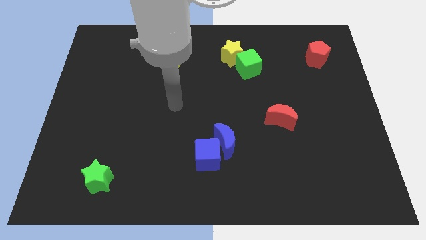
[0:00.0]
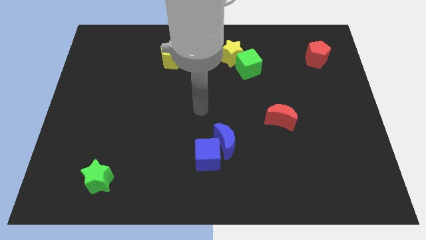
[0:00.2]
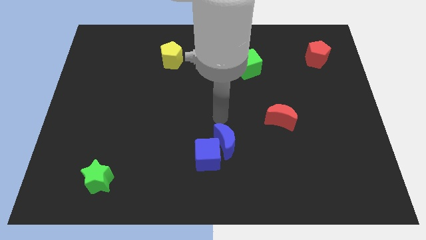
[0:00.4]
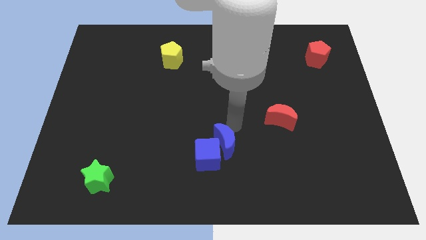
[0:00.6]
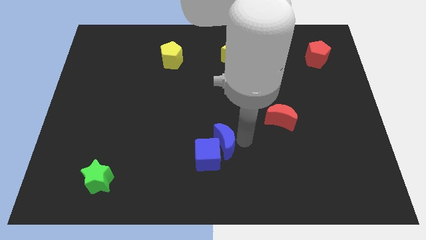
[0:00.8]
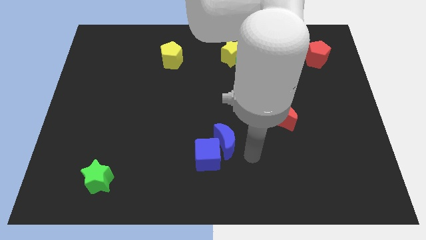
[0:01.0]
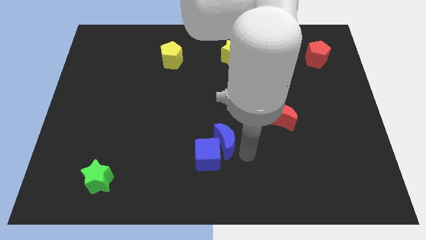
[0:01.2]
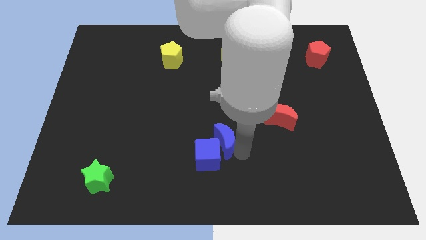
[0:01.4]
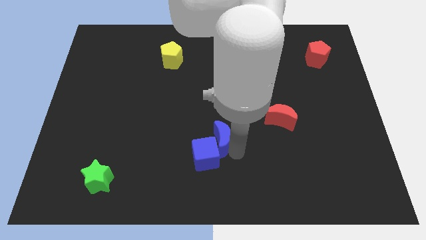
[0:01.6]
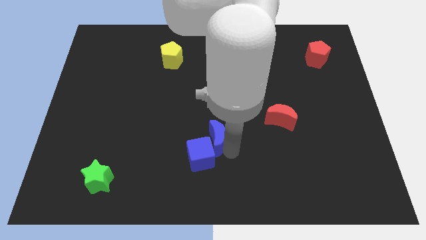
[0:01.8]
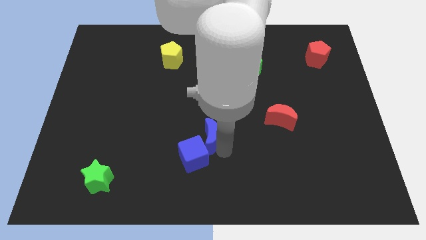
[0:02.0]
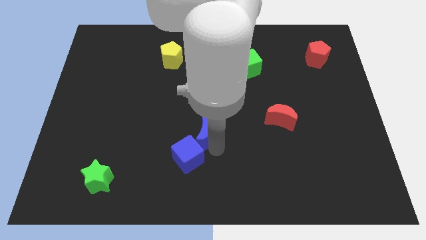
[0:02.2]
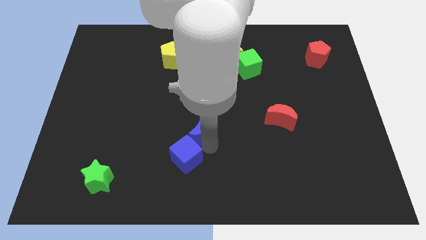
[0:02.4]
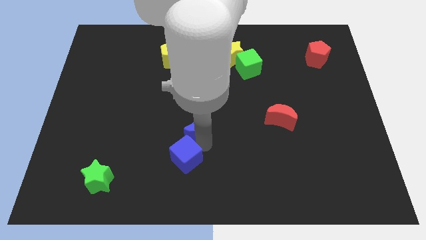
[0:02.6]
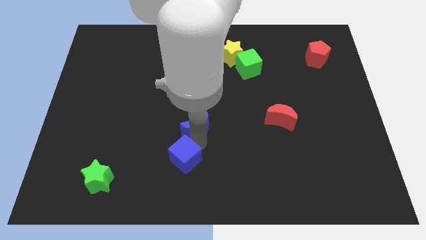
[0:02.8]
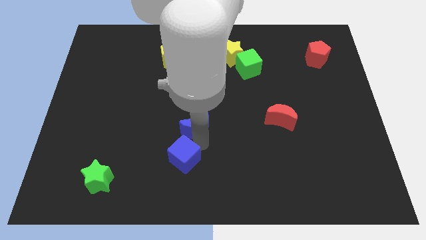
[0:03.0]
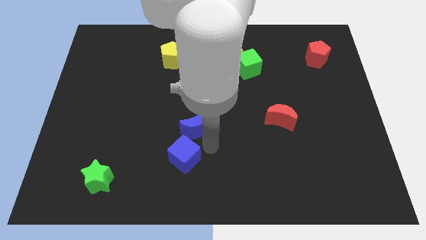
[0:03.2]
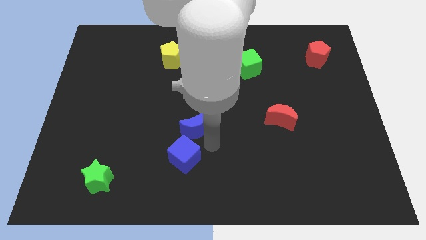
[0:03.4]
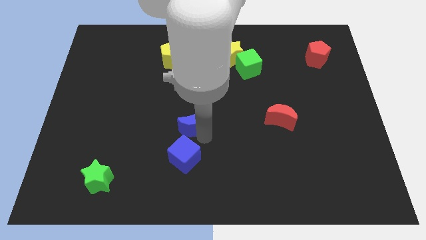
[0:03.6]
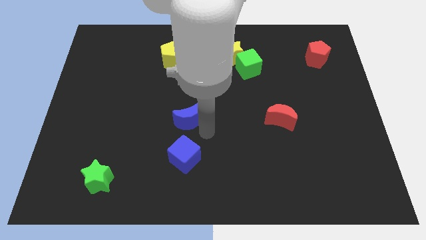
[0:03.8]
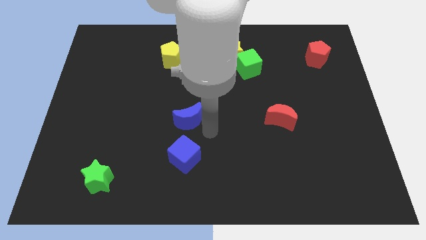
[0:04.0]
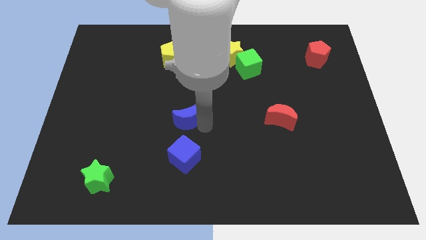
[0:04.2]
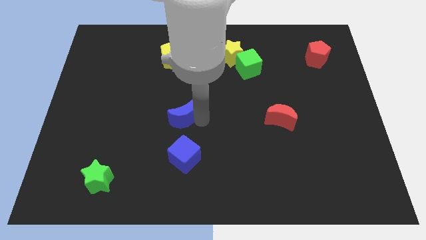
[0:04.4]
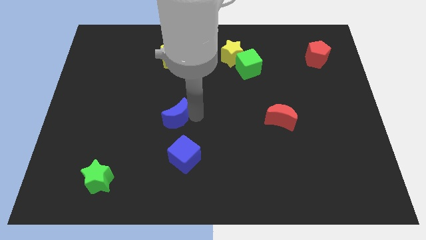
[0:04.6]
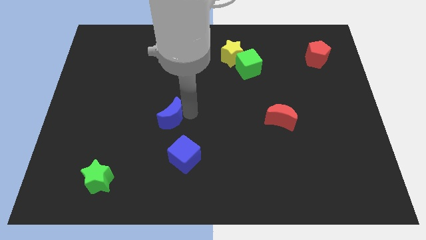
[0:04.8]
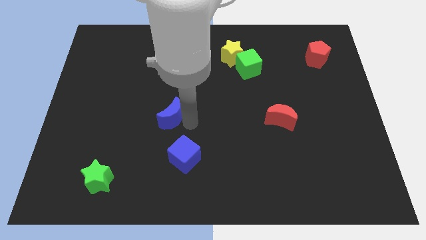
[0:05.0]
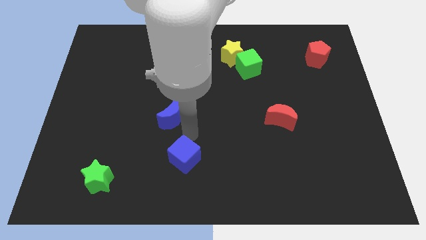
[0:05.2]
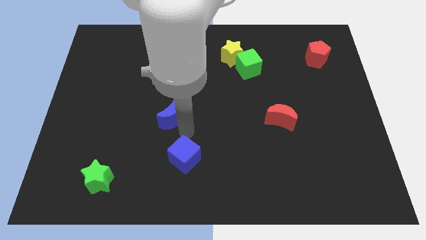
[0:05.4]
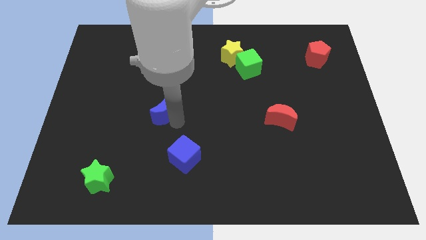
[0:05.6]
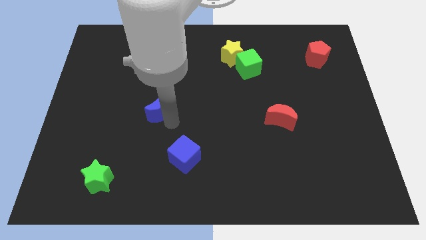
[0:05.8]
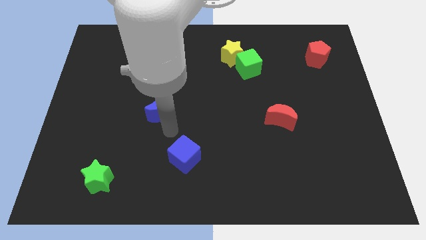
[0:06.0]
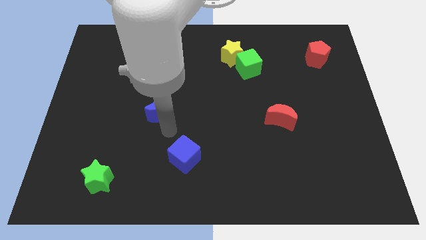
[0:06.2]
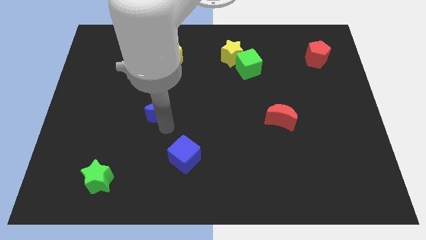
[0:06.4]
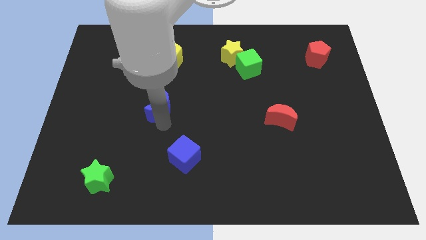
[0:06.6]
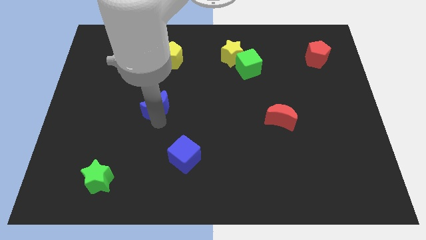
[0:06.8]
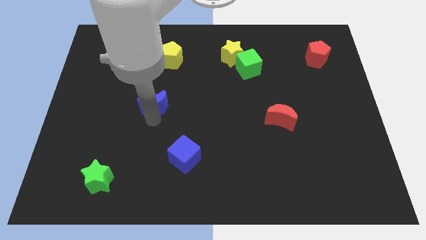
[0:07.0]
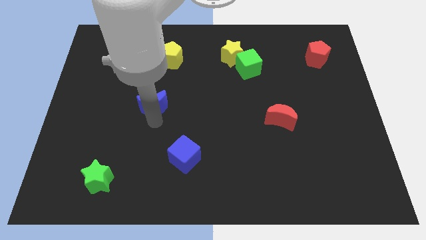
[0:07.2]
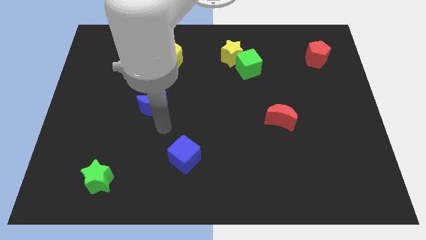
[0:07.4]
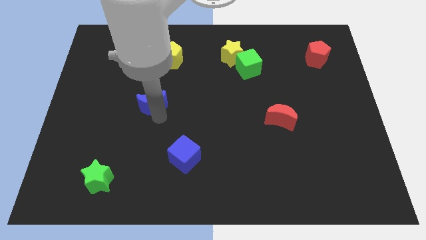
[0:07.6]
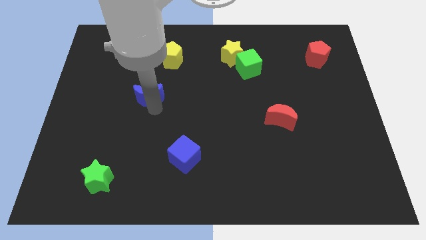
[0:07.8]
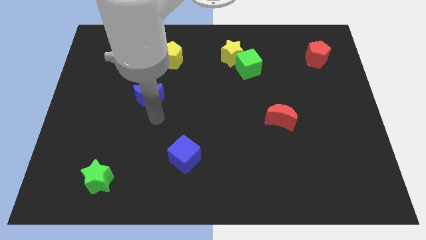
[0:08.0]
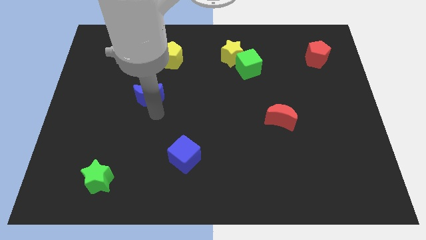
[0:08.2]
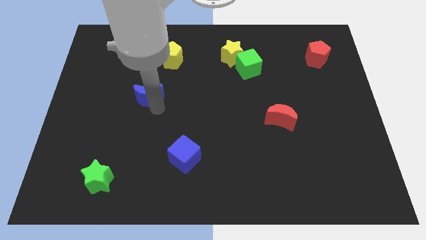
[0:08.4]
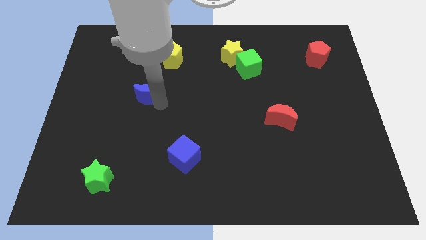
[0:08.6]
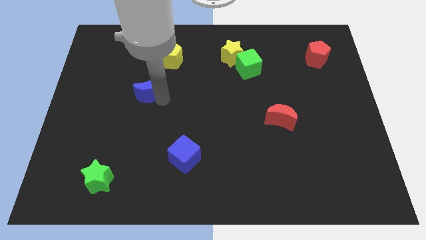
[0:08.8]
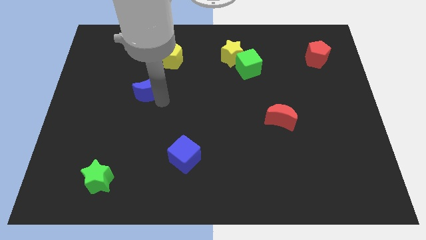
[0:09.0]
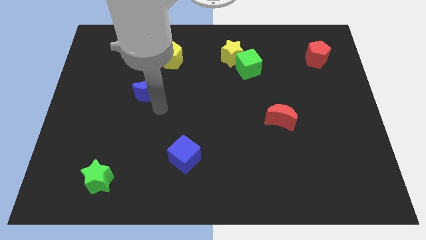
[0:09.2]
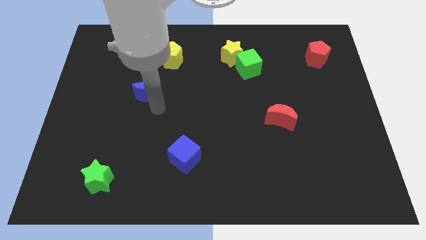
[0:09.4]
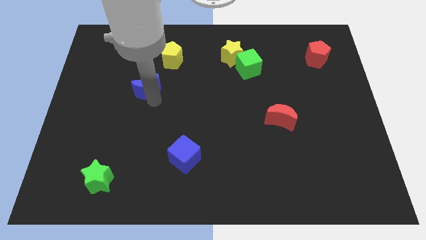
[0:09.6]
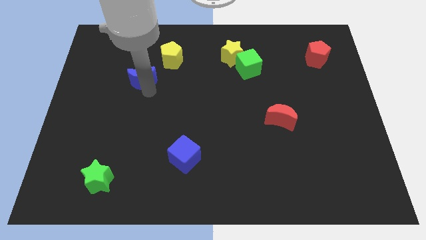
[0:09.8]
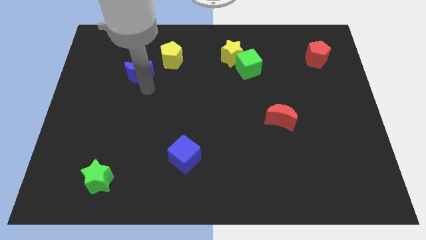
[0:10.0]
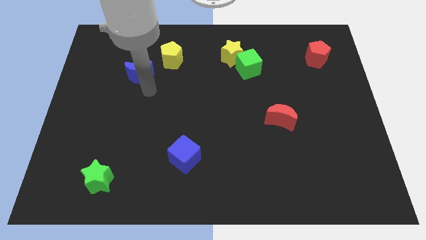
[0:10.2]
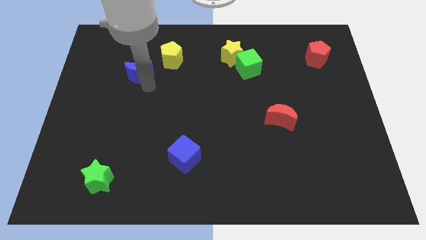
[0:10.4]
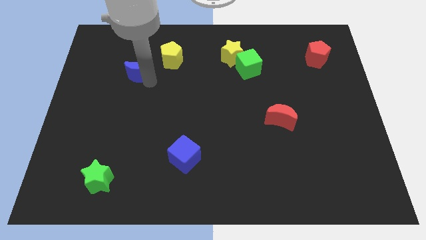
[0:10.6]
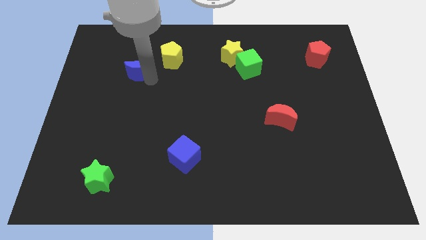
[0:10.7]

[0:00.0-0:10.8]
push the blue moon just left of the yellow pentagon

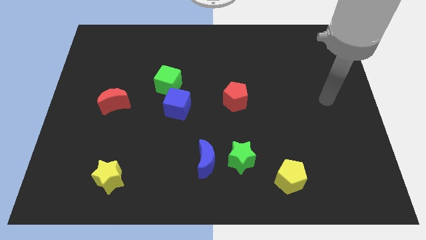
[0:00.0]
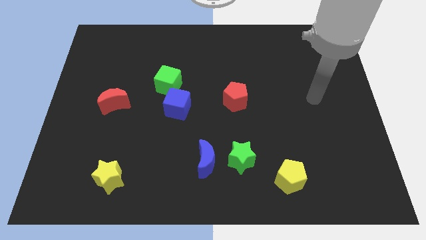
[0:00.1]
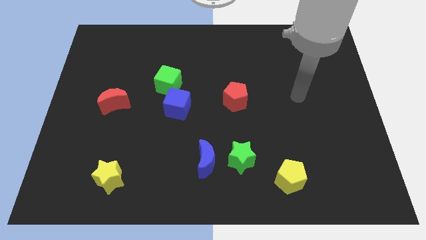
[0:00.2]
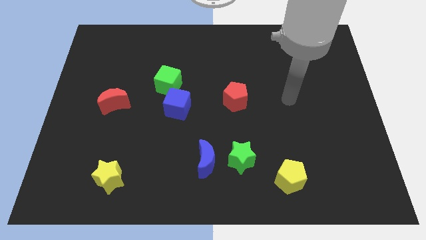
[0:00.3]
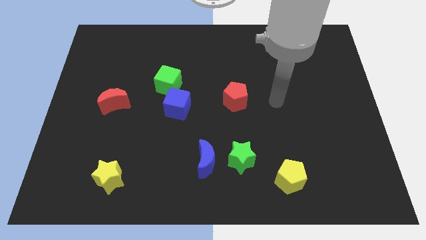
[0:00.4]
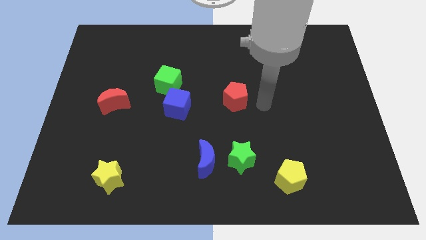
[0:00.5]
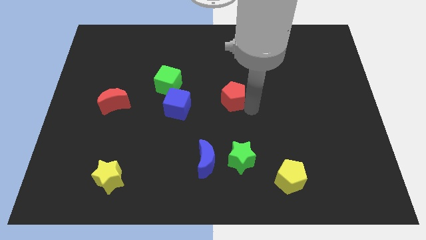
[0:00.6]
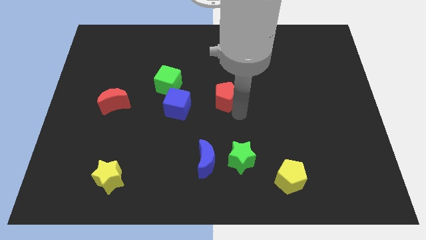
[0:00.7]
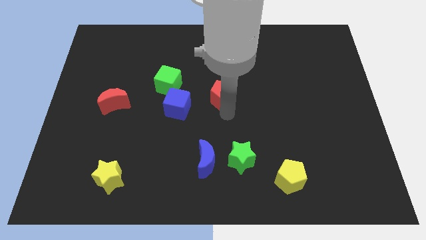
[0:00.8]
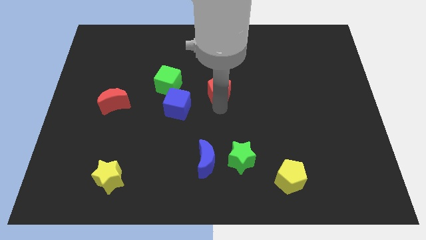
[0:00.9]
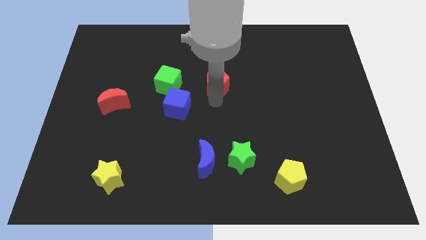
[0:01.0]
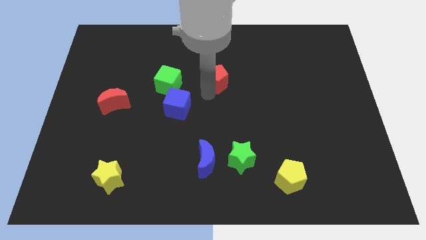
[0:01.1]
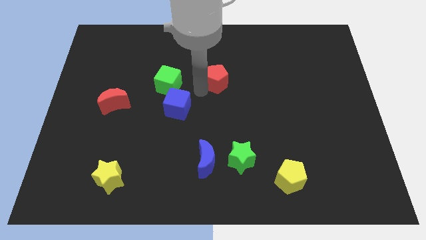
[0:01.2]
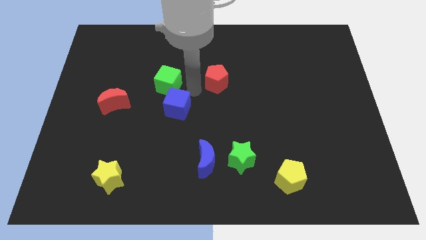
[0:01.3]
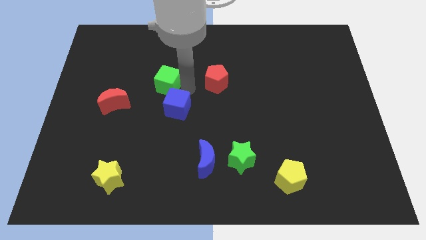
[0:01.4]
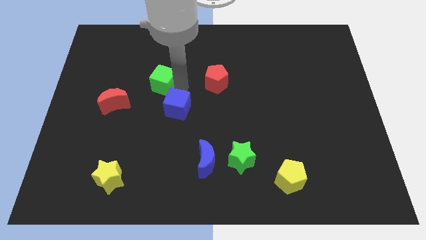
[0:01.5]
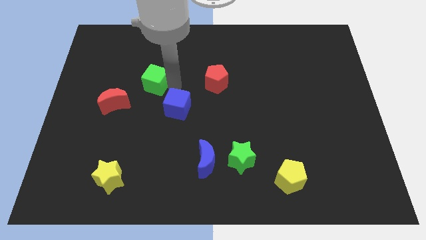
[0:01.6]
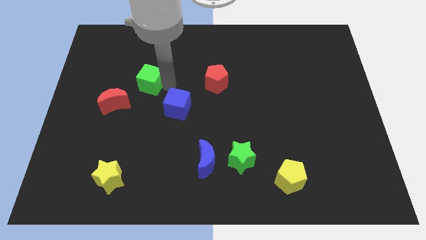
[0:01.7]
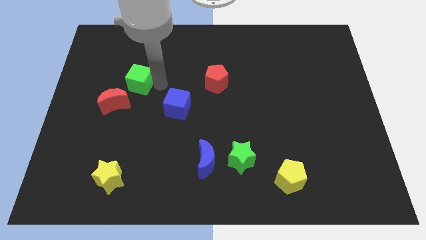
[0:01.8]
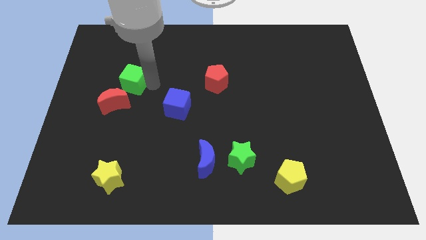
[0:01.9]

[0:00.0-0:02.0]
slide the green cube to the top of the red moon
